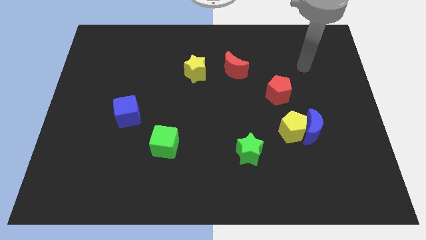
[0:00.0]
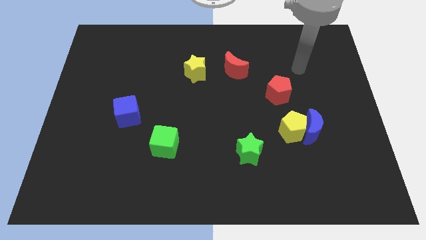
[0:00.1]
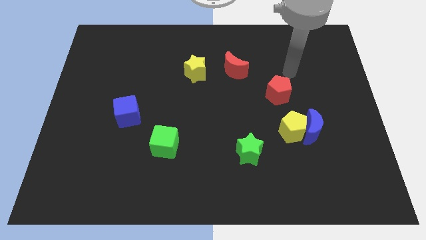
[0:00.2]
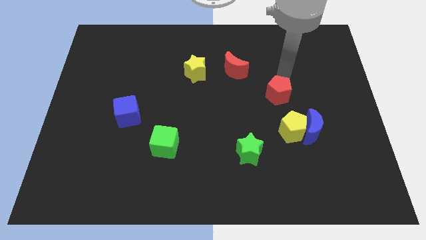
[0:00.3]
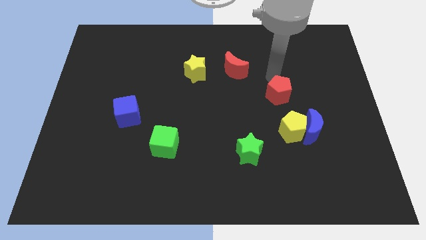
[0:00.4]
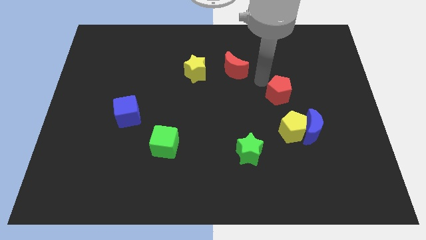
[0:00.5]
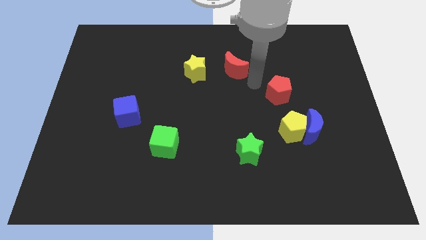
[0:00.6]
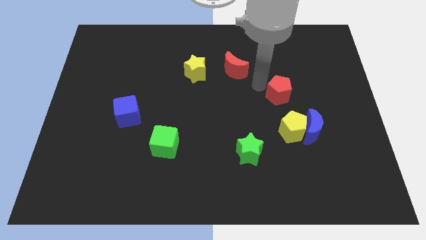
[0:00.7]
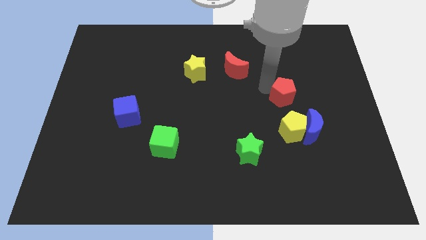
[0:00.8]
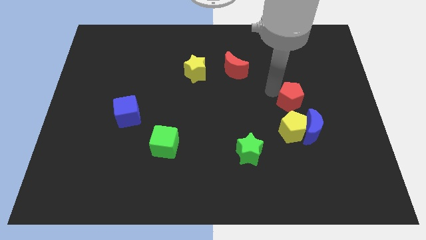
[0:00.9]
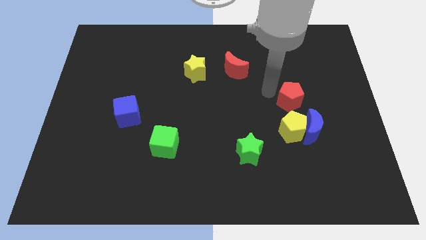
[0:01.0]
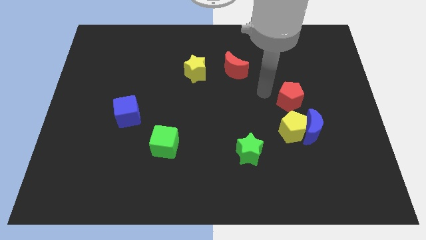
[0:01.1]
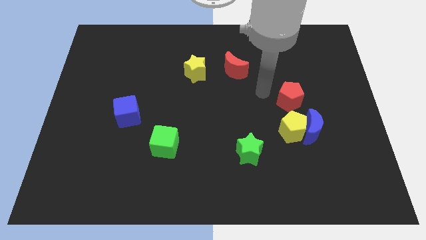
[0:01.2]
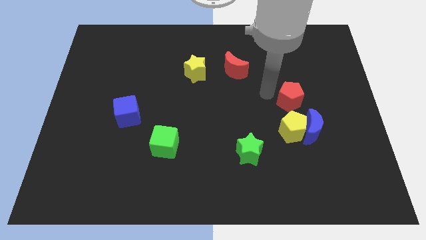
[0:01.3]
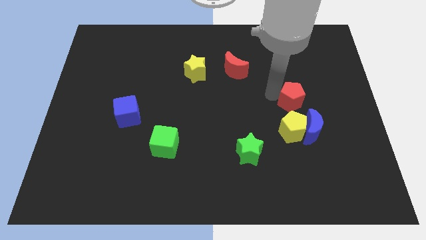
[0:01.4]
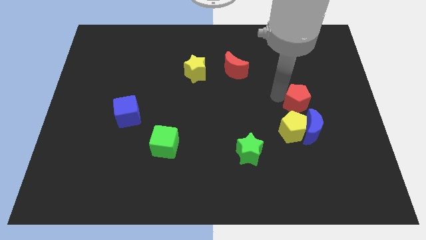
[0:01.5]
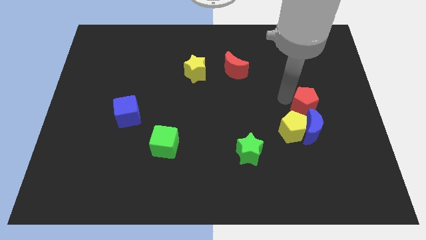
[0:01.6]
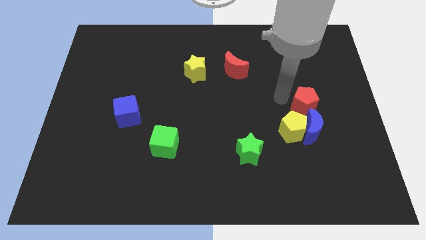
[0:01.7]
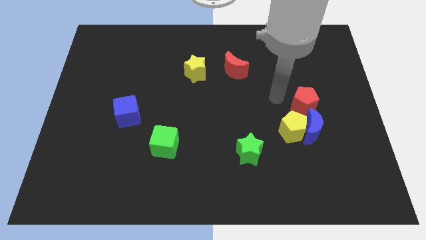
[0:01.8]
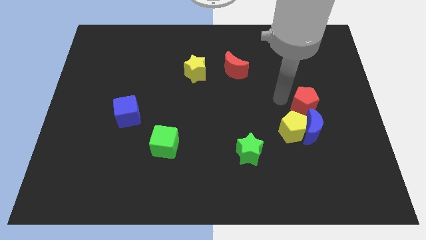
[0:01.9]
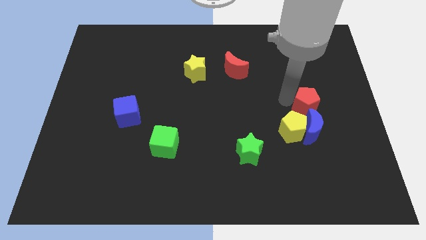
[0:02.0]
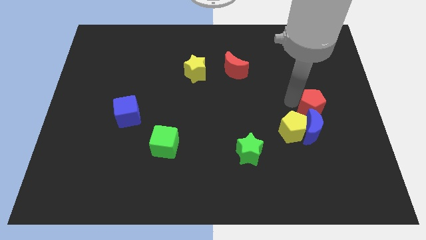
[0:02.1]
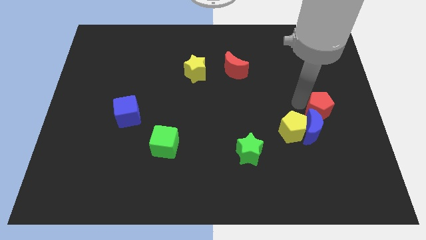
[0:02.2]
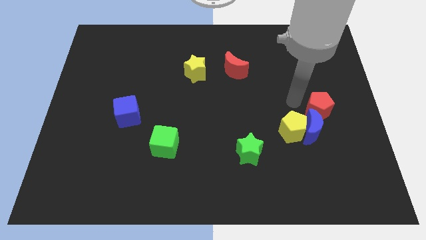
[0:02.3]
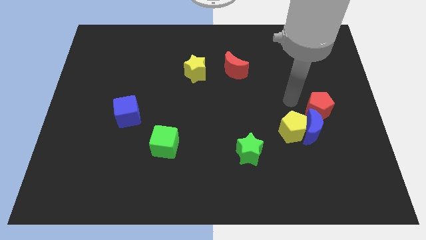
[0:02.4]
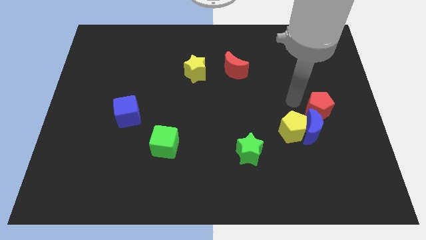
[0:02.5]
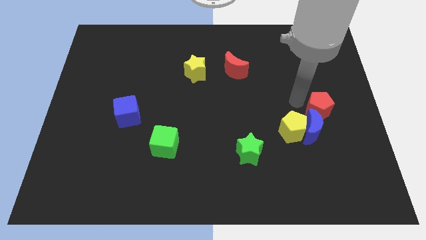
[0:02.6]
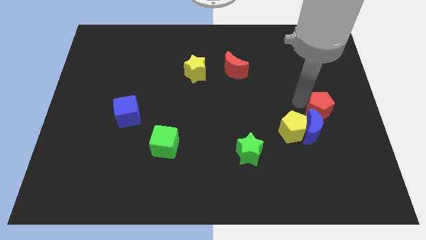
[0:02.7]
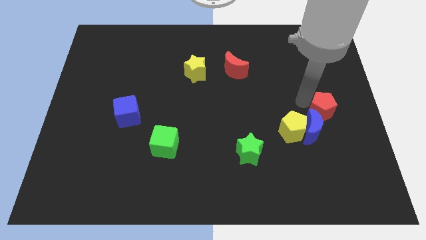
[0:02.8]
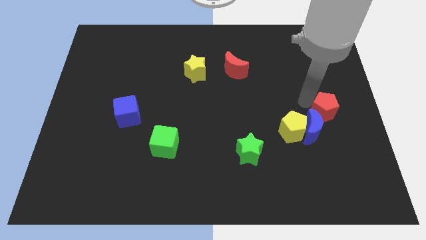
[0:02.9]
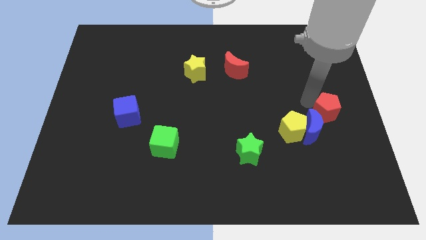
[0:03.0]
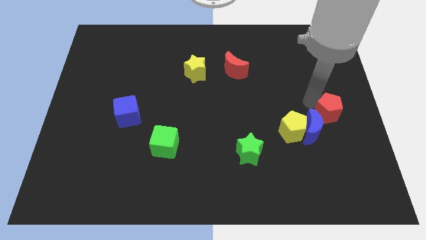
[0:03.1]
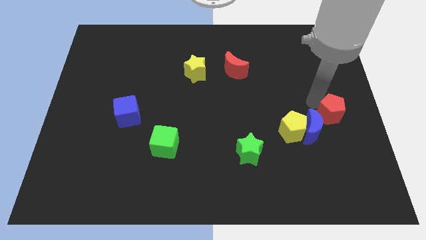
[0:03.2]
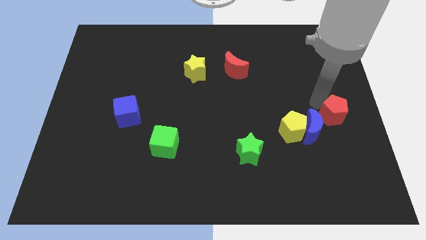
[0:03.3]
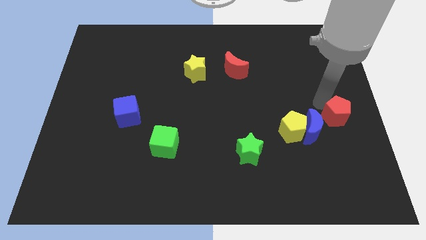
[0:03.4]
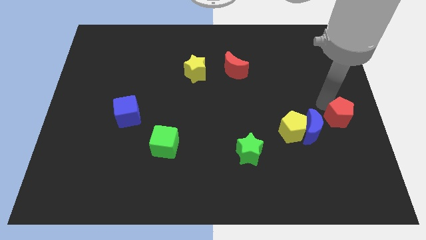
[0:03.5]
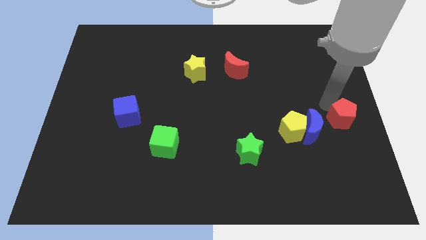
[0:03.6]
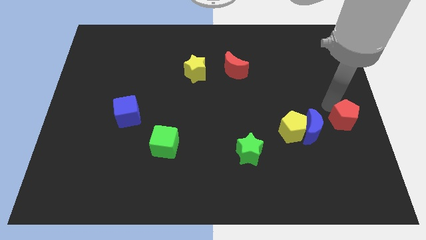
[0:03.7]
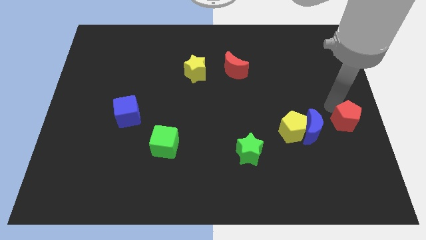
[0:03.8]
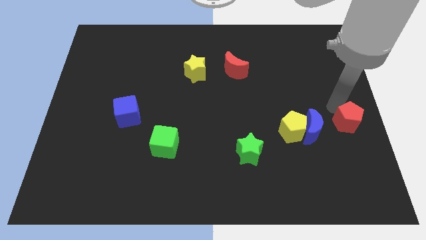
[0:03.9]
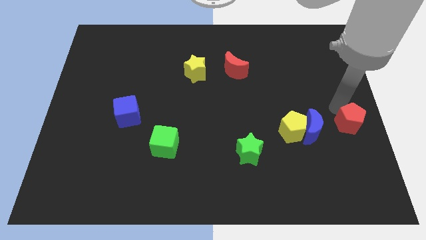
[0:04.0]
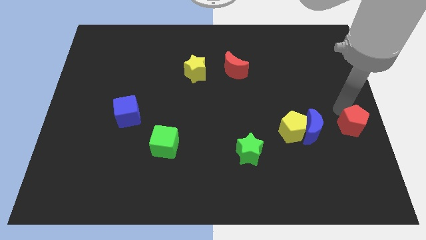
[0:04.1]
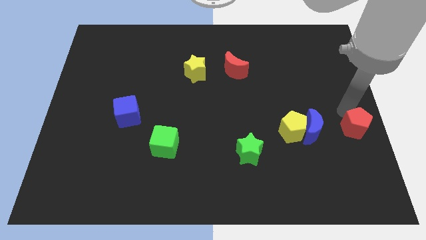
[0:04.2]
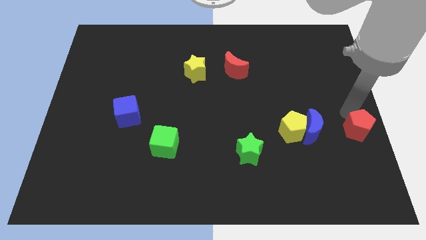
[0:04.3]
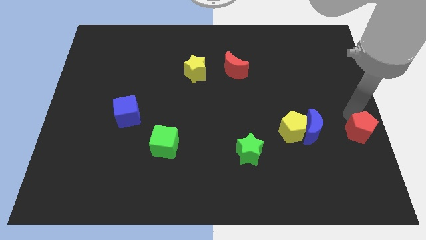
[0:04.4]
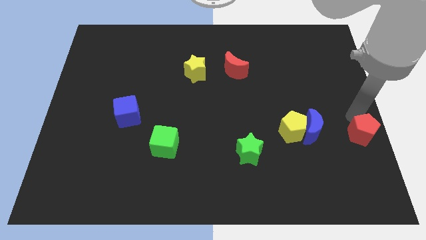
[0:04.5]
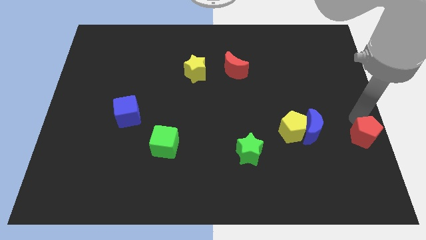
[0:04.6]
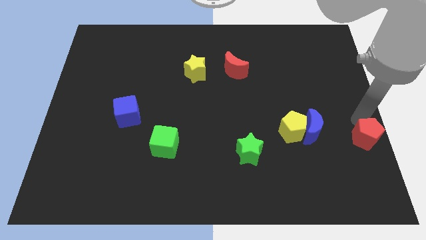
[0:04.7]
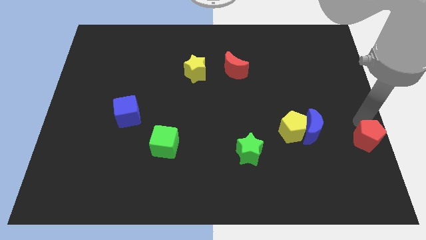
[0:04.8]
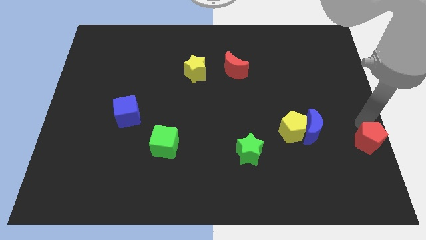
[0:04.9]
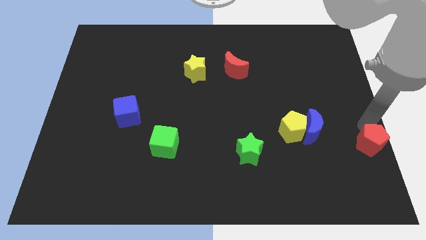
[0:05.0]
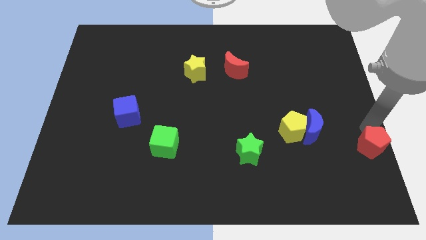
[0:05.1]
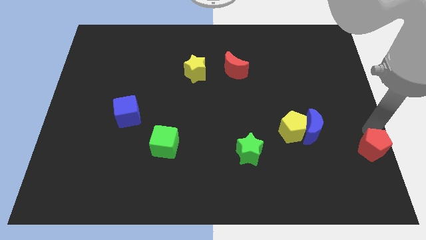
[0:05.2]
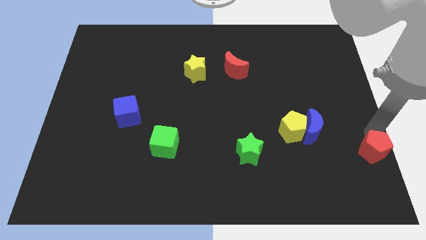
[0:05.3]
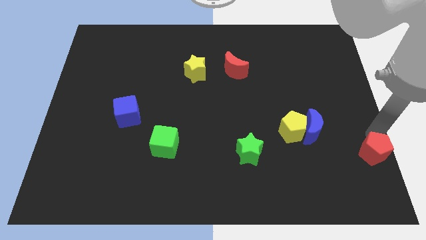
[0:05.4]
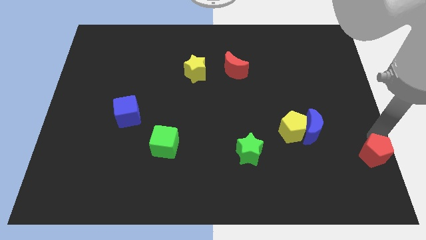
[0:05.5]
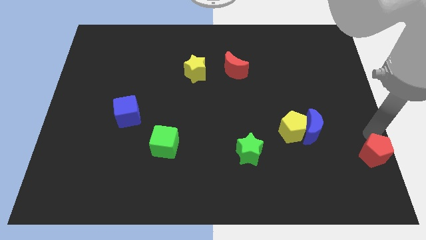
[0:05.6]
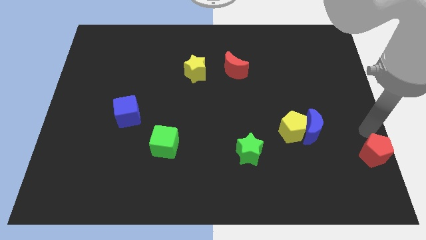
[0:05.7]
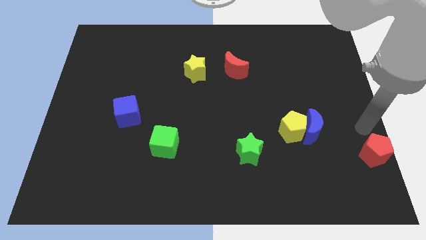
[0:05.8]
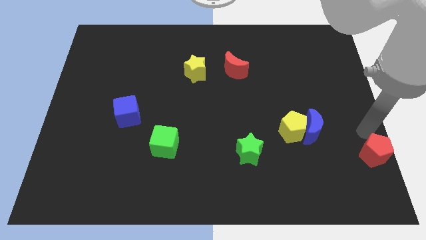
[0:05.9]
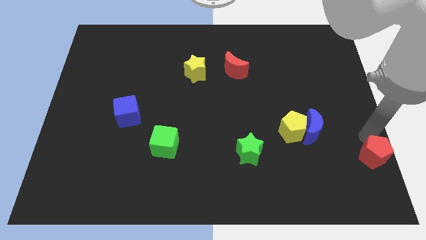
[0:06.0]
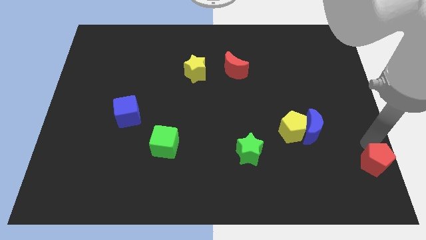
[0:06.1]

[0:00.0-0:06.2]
push the red pentagon to the bottom right
